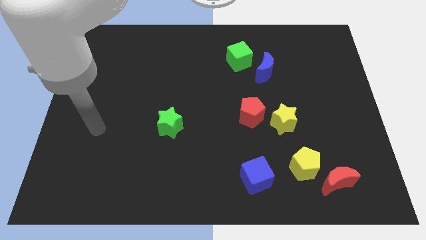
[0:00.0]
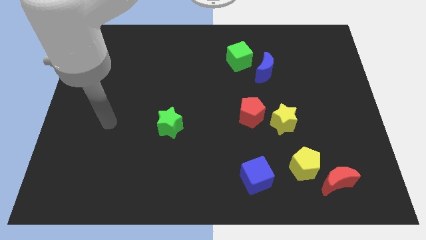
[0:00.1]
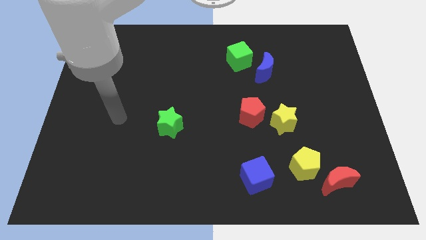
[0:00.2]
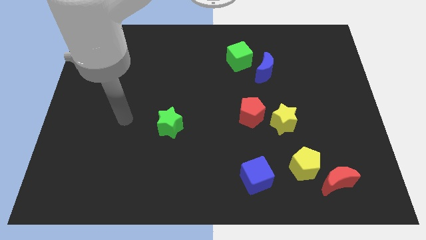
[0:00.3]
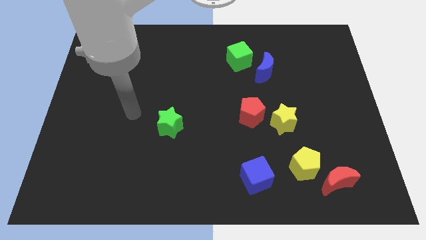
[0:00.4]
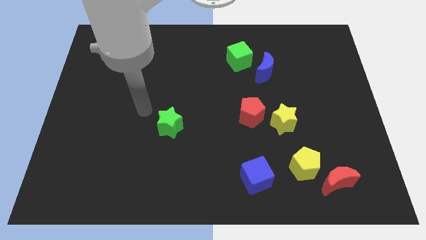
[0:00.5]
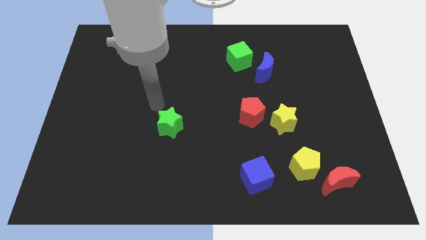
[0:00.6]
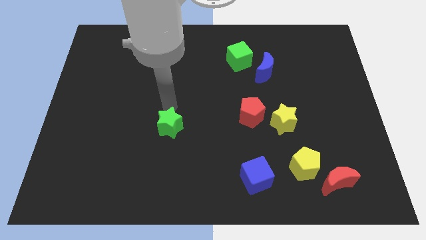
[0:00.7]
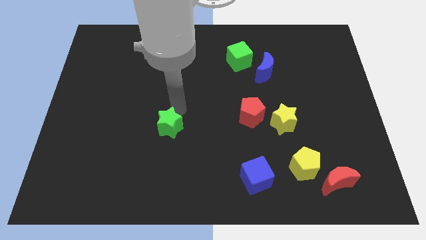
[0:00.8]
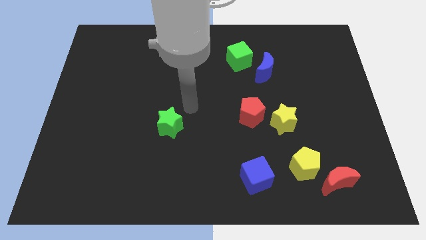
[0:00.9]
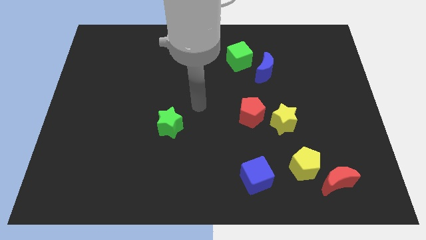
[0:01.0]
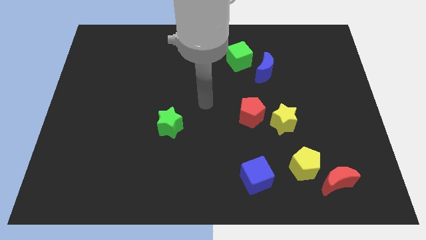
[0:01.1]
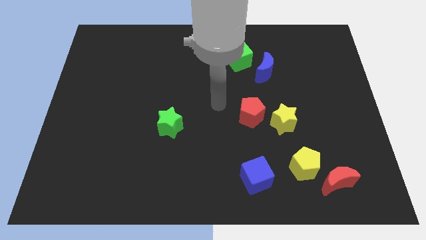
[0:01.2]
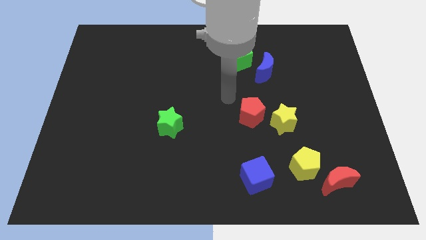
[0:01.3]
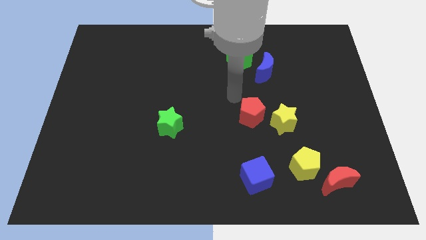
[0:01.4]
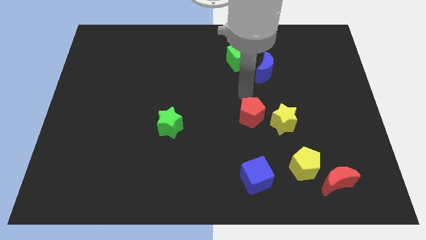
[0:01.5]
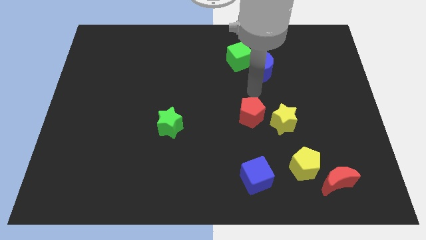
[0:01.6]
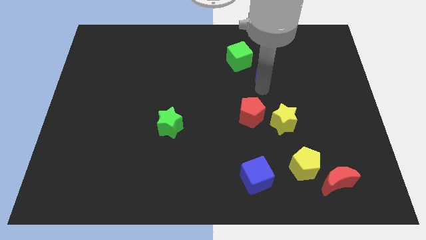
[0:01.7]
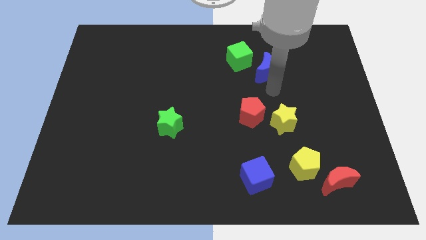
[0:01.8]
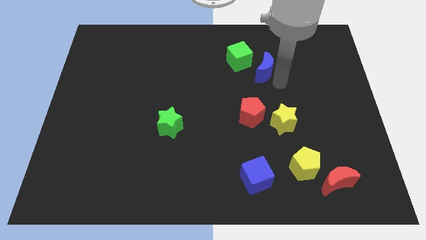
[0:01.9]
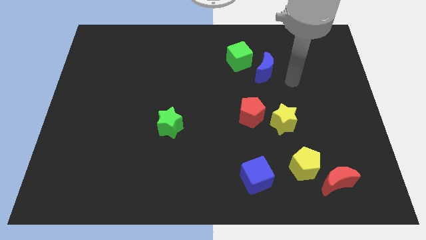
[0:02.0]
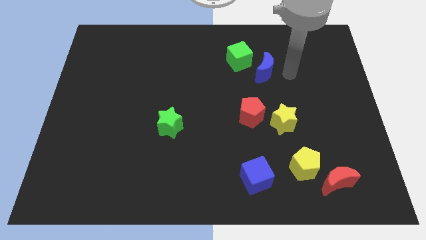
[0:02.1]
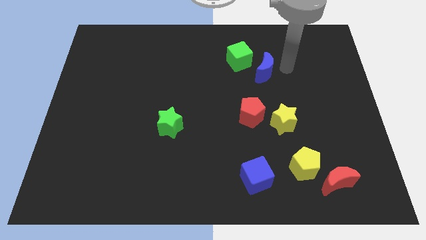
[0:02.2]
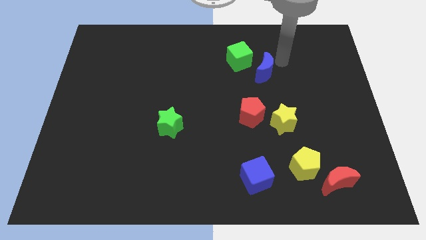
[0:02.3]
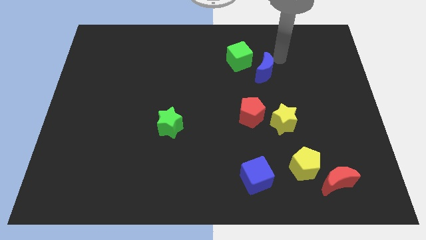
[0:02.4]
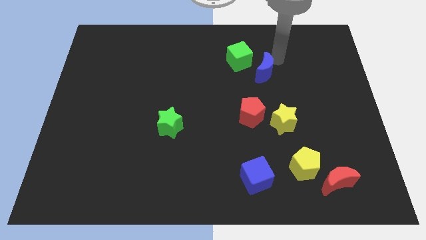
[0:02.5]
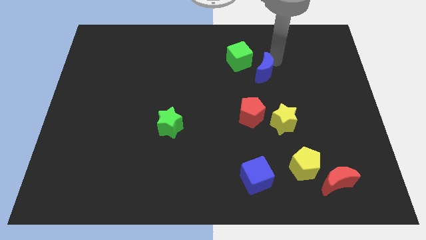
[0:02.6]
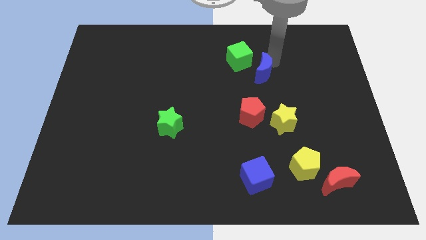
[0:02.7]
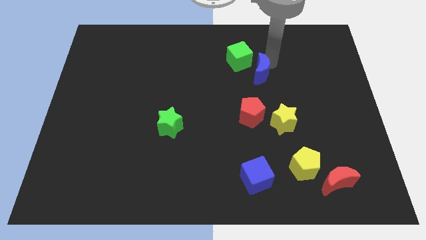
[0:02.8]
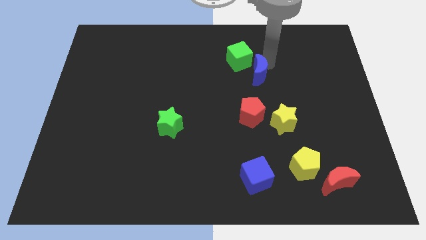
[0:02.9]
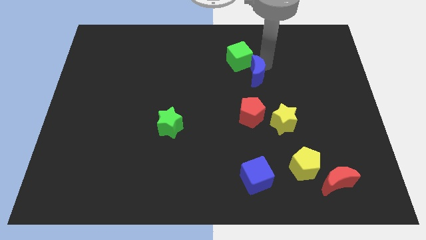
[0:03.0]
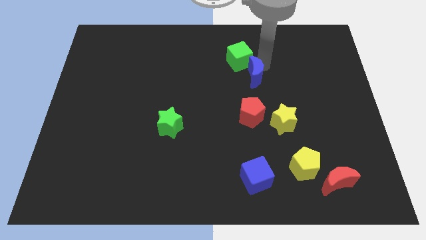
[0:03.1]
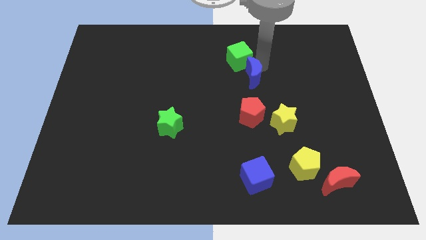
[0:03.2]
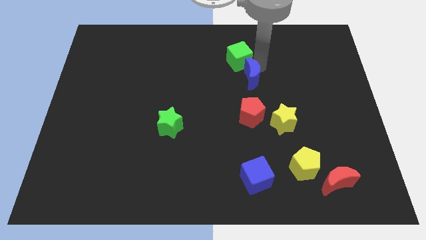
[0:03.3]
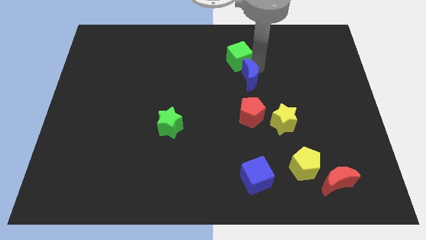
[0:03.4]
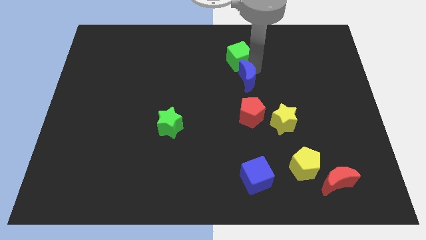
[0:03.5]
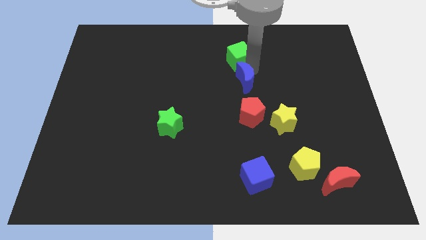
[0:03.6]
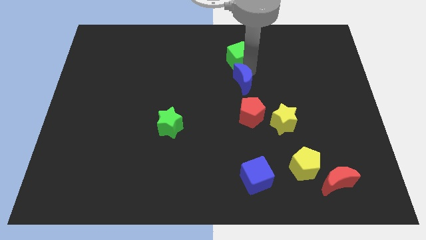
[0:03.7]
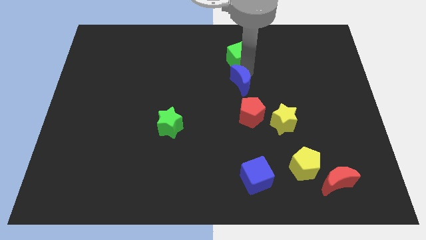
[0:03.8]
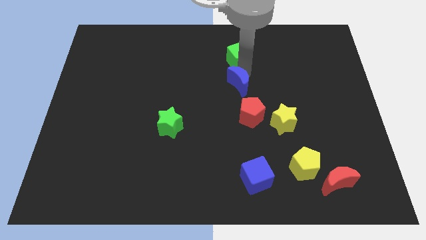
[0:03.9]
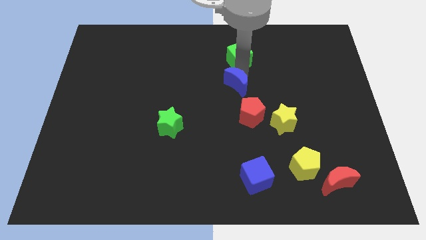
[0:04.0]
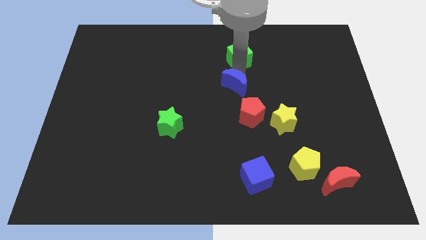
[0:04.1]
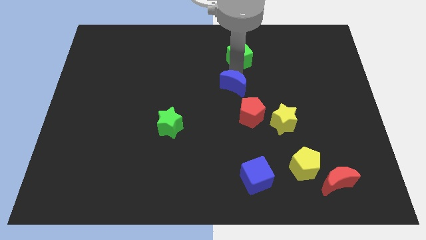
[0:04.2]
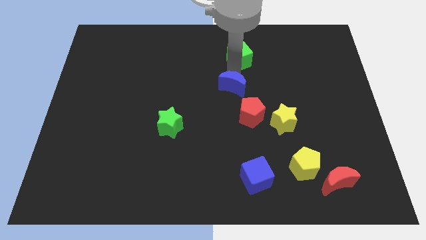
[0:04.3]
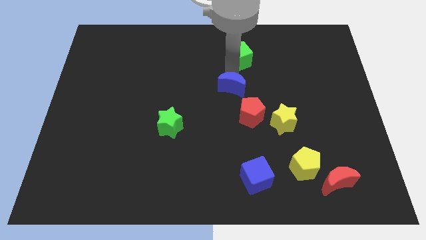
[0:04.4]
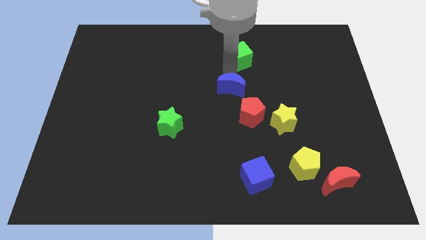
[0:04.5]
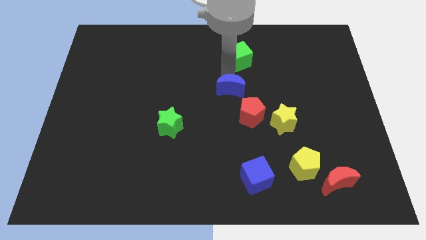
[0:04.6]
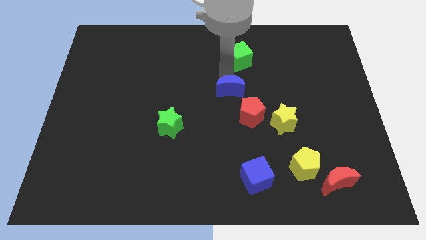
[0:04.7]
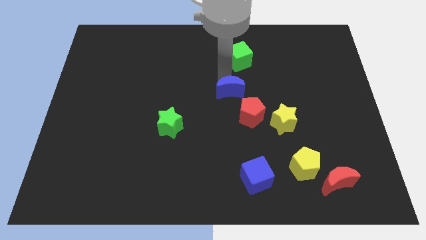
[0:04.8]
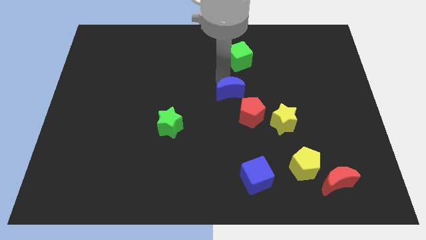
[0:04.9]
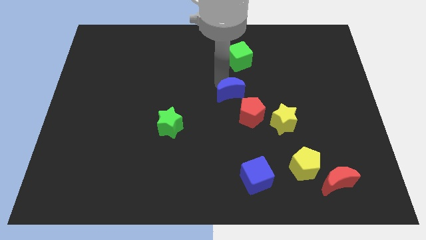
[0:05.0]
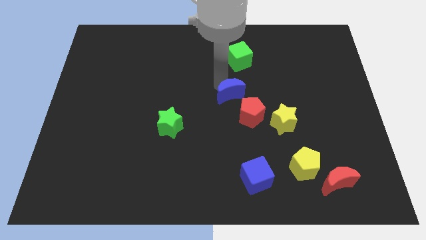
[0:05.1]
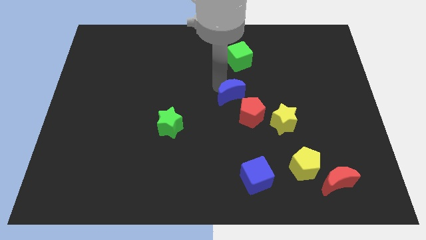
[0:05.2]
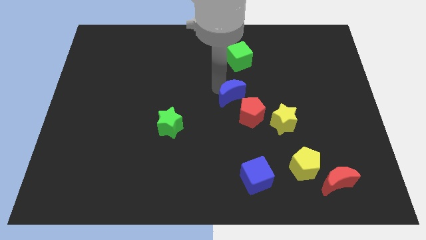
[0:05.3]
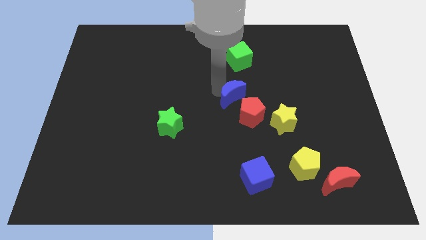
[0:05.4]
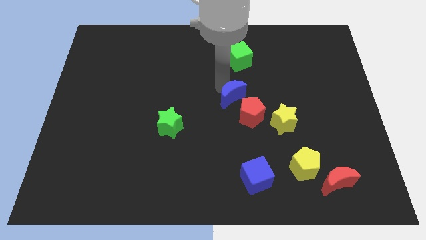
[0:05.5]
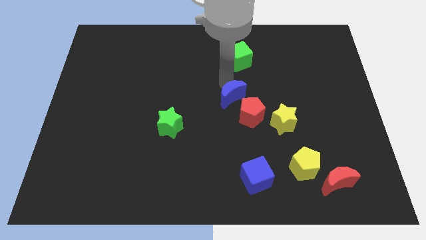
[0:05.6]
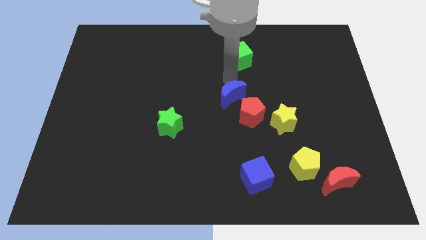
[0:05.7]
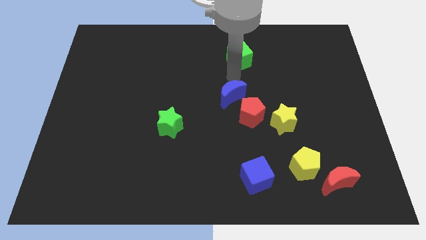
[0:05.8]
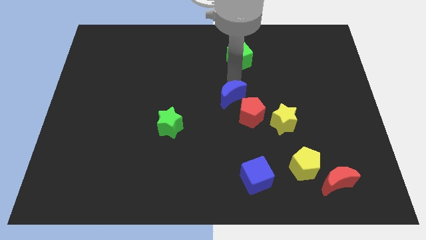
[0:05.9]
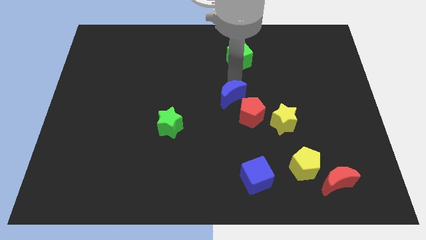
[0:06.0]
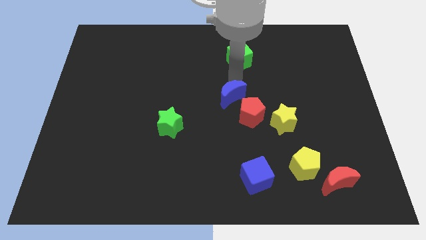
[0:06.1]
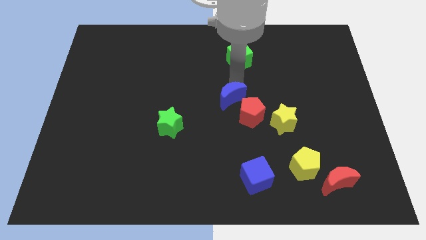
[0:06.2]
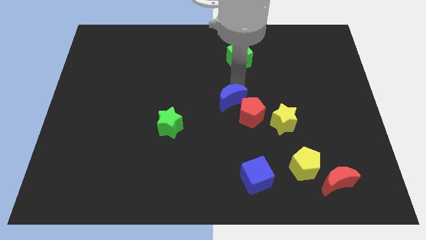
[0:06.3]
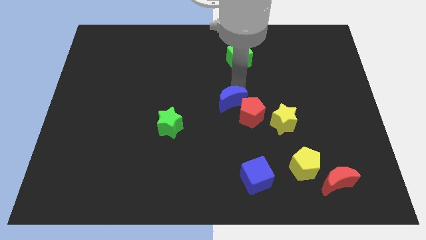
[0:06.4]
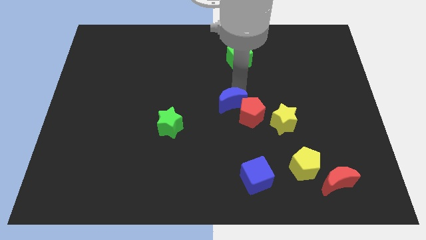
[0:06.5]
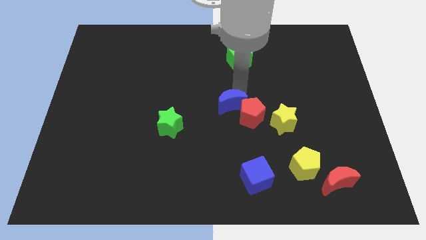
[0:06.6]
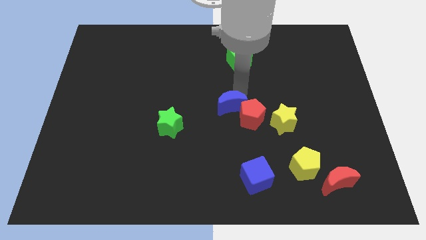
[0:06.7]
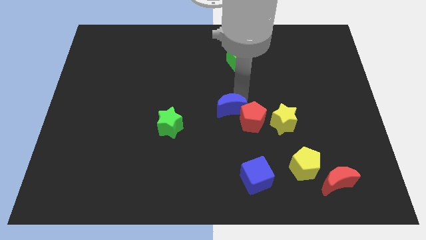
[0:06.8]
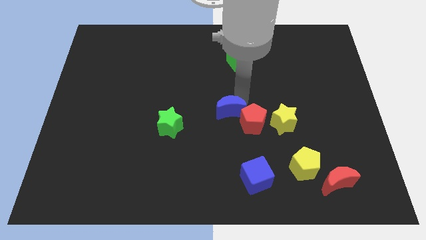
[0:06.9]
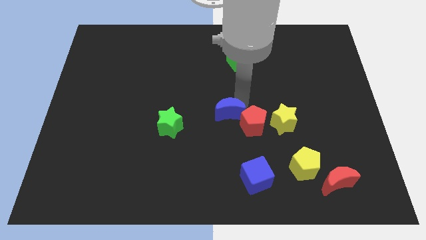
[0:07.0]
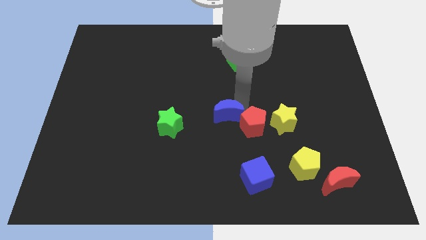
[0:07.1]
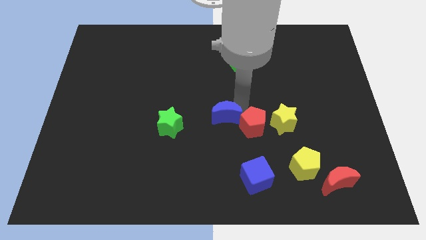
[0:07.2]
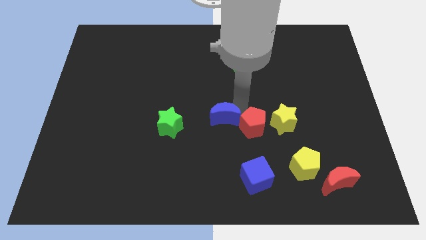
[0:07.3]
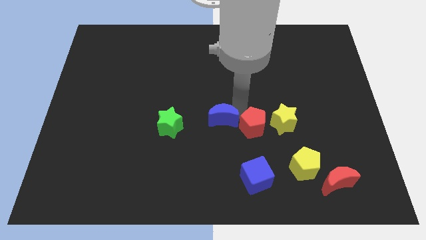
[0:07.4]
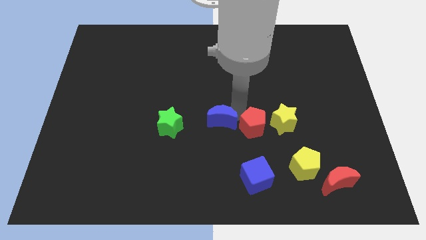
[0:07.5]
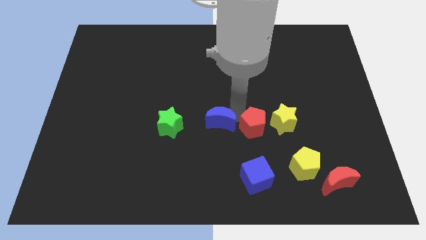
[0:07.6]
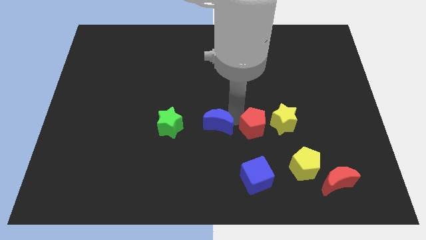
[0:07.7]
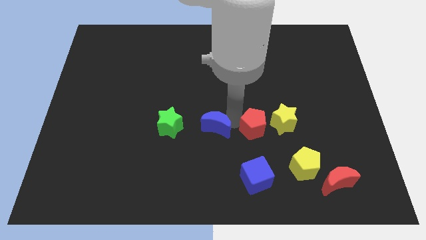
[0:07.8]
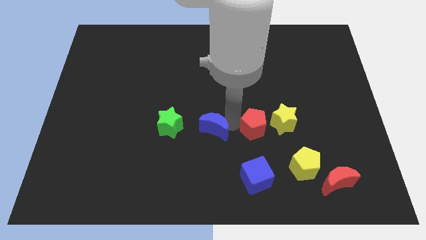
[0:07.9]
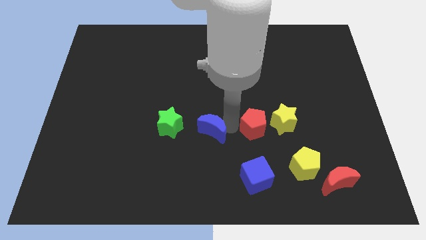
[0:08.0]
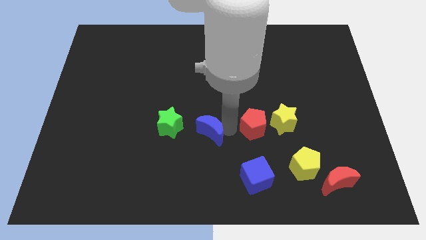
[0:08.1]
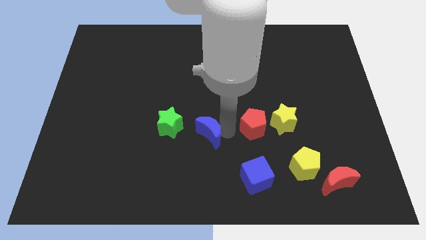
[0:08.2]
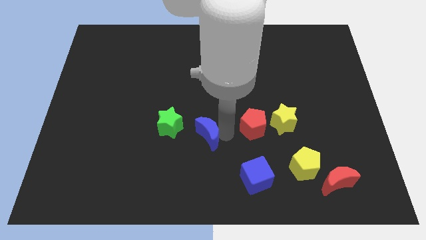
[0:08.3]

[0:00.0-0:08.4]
move the blue moon to the bottom right of the green star
